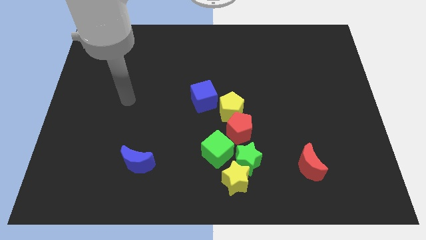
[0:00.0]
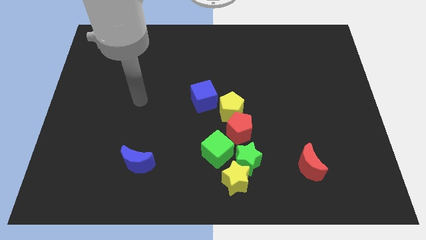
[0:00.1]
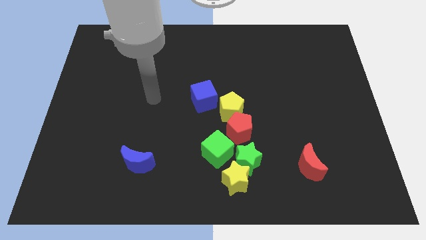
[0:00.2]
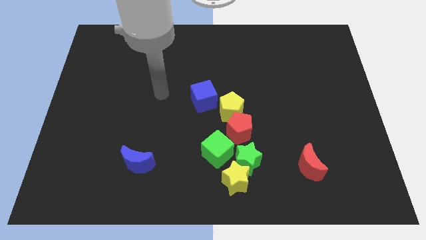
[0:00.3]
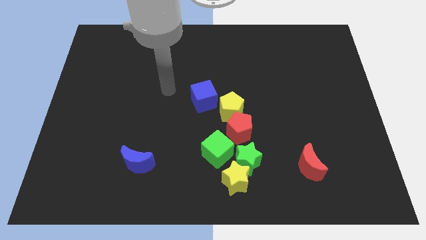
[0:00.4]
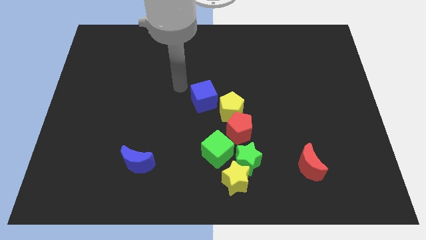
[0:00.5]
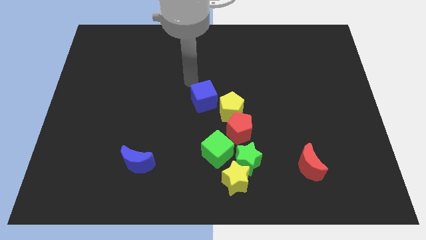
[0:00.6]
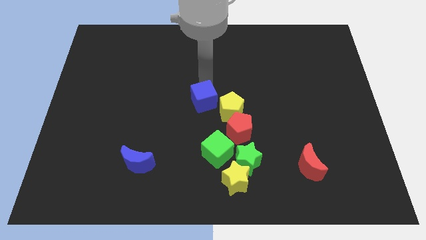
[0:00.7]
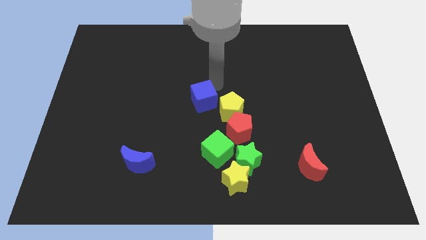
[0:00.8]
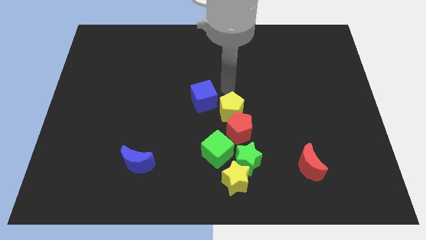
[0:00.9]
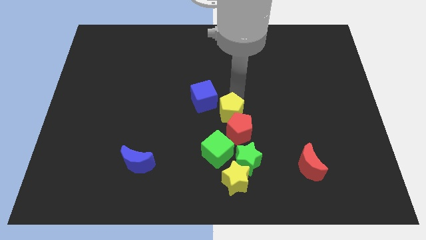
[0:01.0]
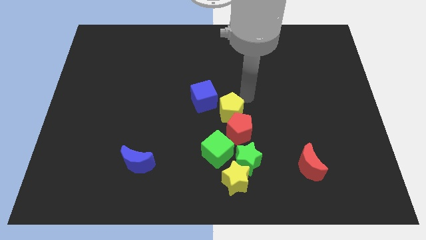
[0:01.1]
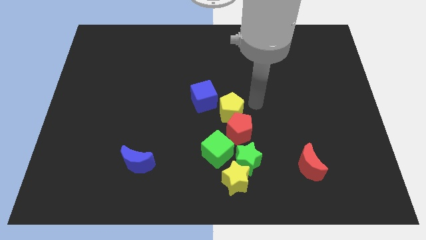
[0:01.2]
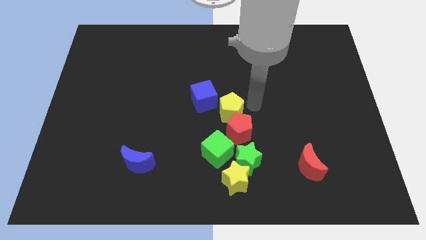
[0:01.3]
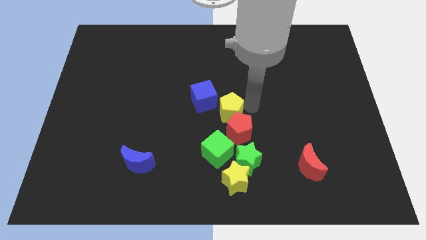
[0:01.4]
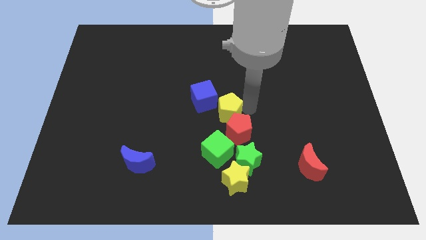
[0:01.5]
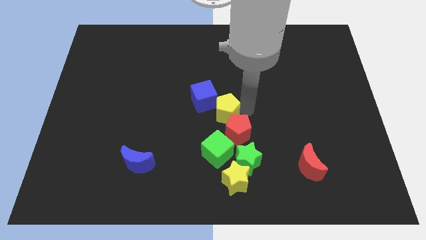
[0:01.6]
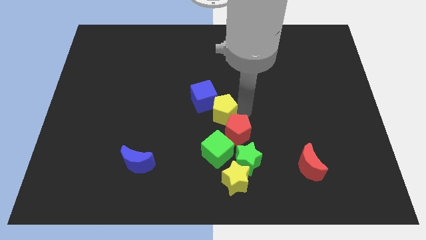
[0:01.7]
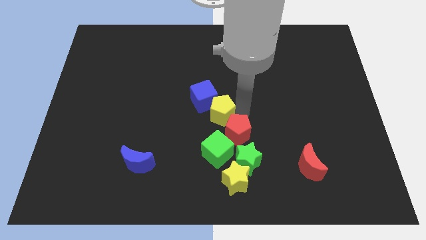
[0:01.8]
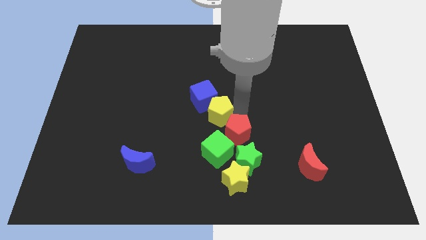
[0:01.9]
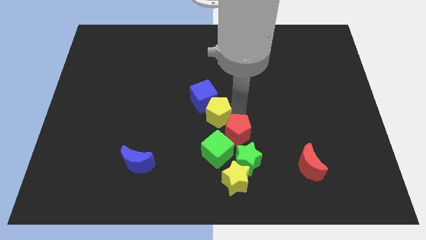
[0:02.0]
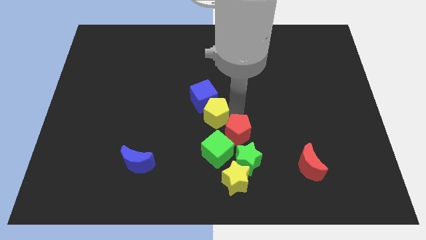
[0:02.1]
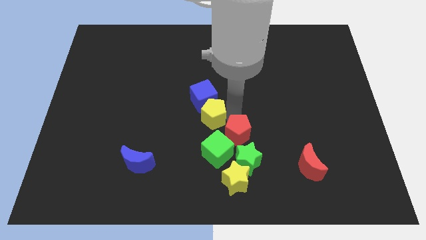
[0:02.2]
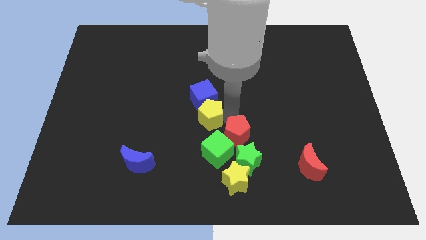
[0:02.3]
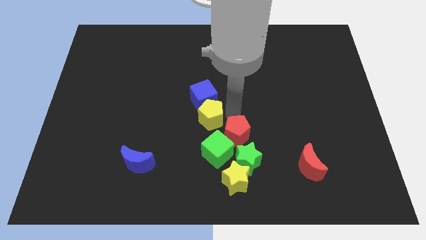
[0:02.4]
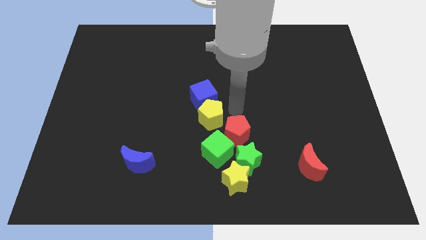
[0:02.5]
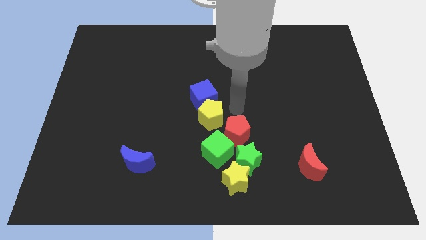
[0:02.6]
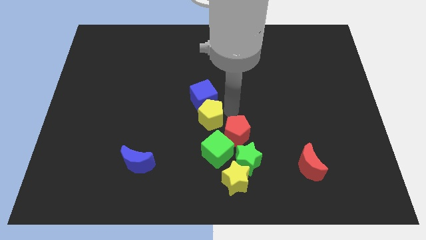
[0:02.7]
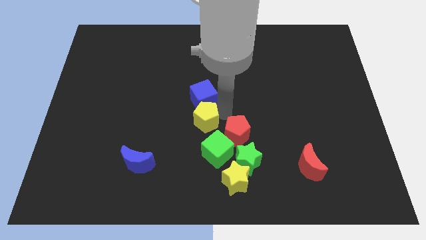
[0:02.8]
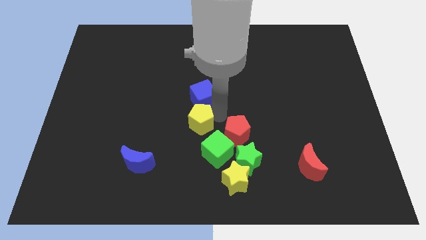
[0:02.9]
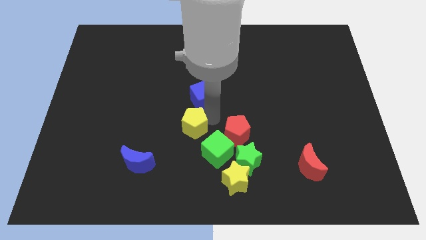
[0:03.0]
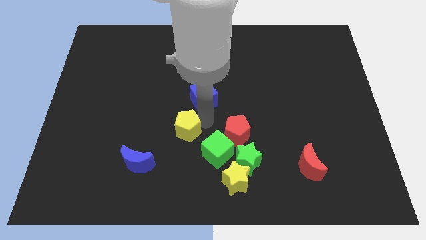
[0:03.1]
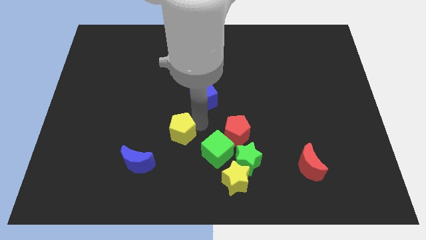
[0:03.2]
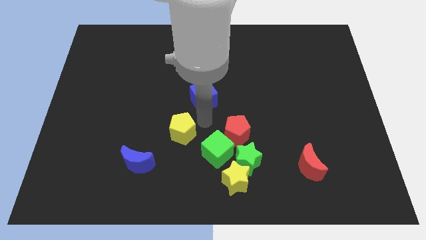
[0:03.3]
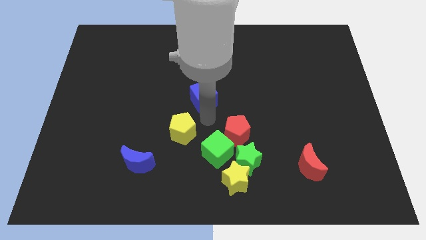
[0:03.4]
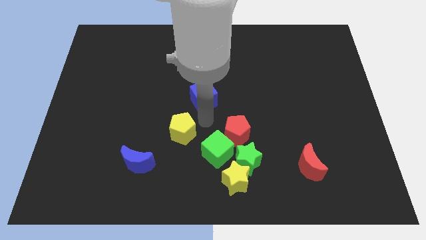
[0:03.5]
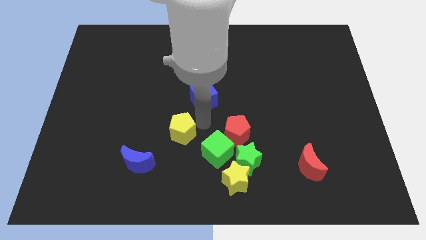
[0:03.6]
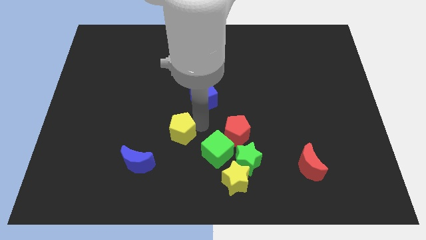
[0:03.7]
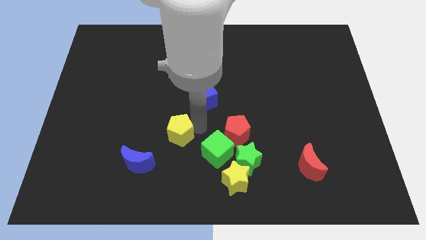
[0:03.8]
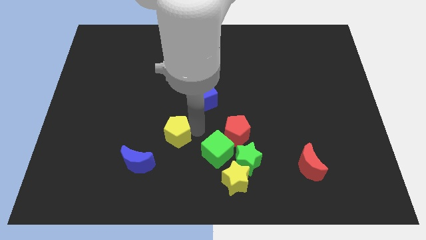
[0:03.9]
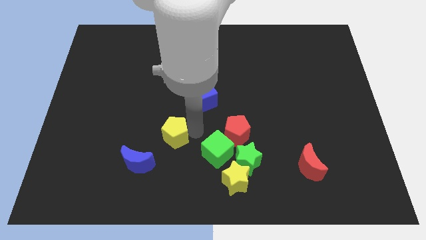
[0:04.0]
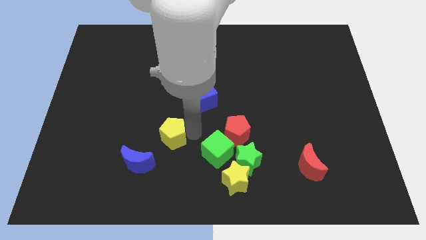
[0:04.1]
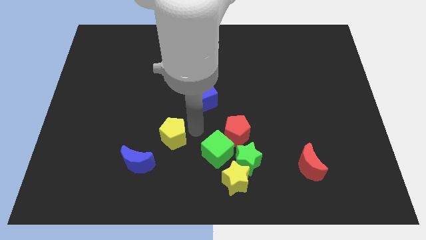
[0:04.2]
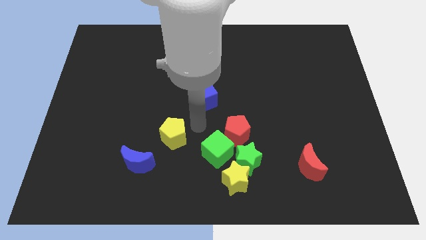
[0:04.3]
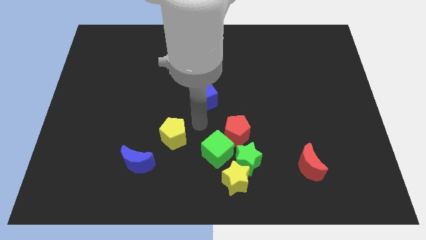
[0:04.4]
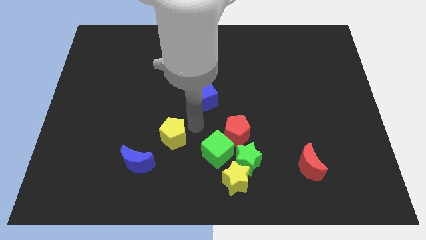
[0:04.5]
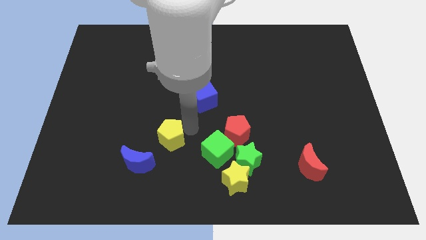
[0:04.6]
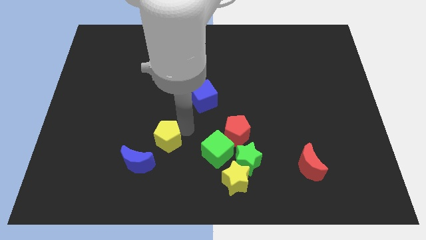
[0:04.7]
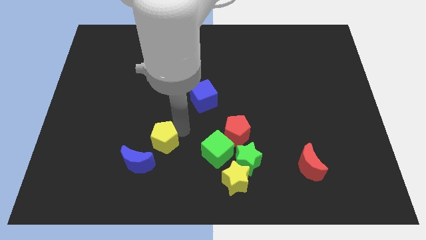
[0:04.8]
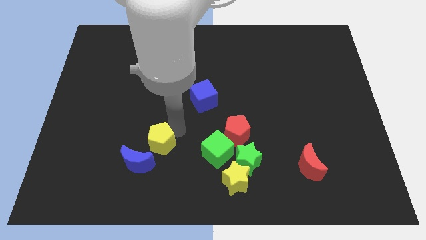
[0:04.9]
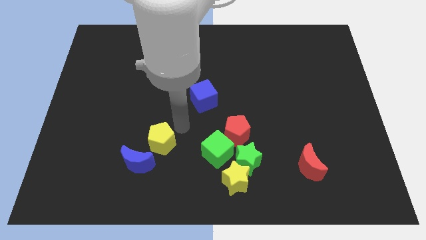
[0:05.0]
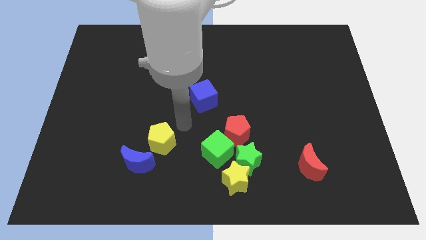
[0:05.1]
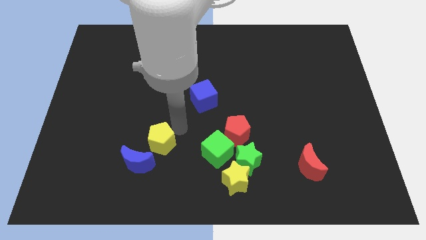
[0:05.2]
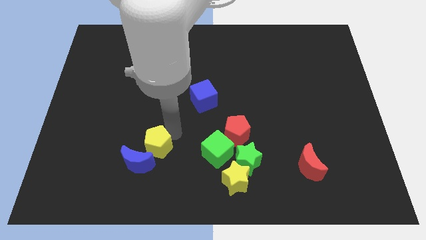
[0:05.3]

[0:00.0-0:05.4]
slide the yellow pentagon towards the blue moon

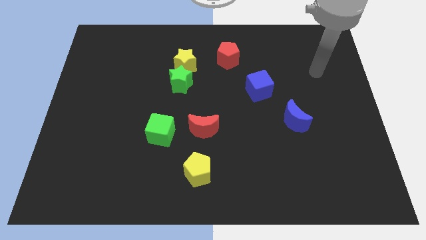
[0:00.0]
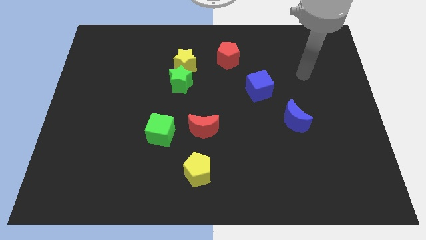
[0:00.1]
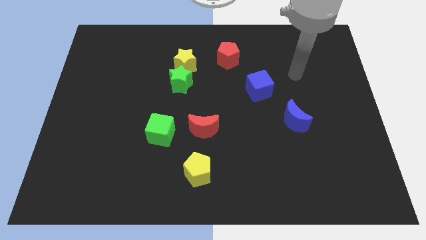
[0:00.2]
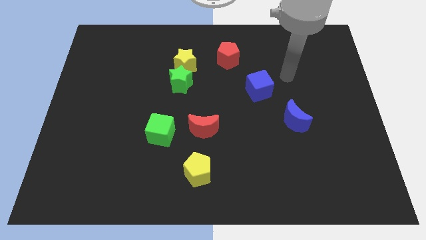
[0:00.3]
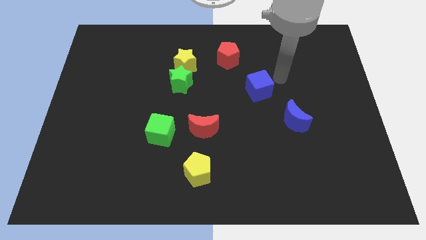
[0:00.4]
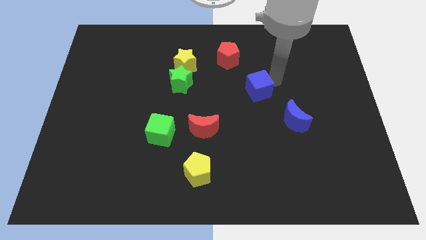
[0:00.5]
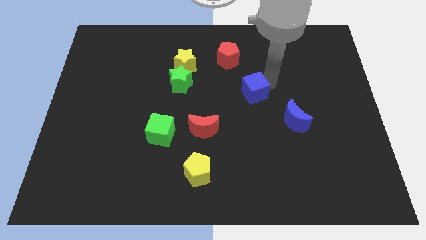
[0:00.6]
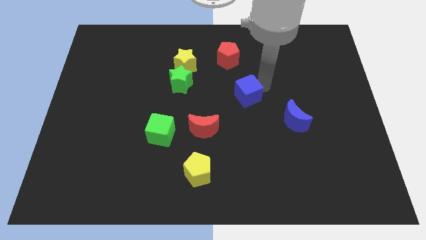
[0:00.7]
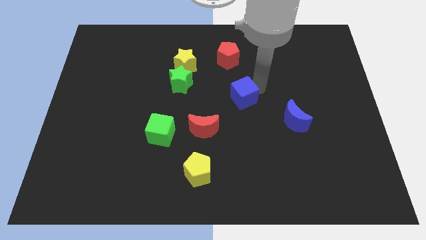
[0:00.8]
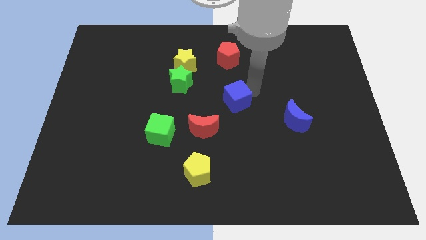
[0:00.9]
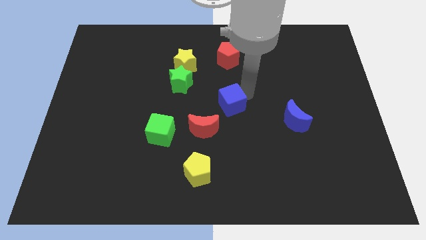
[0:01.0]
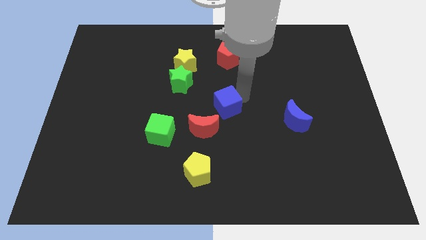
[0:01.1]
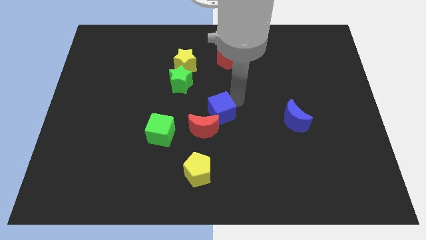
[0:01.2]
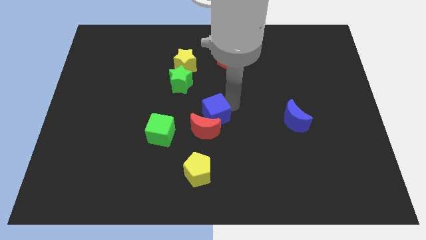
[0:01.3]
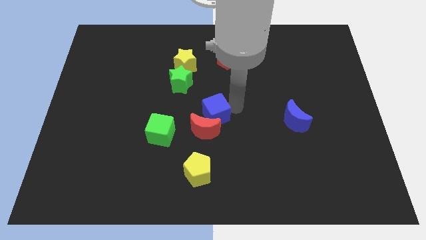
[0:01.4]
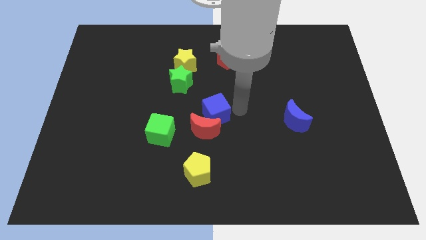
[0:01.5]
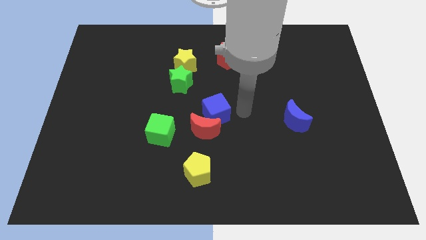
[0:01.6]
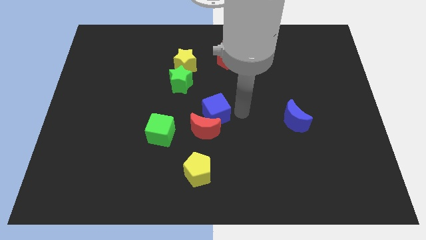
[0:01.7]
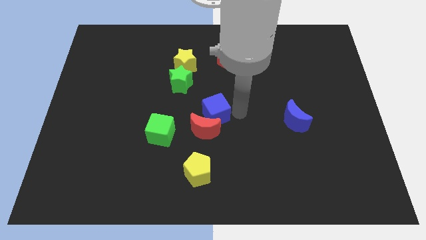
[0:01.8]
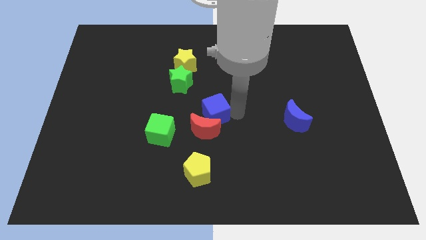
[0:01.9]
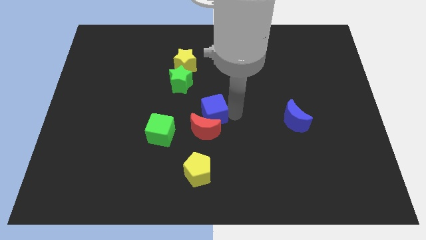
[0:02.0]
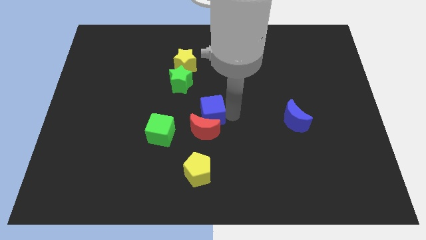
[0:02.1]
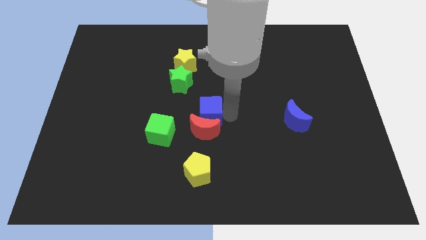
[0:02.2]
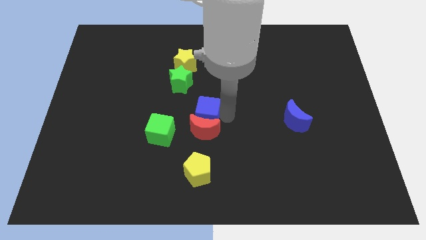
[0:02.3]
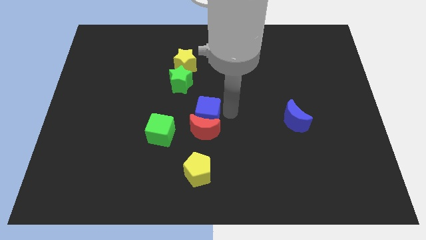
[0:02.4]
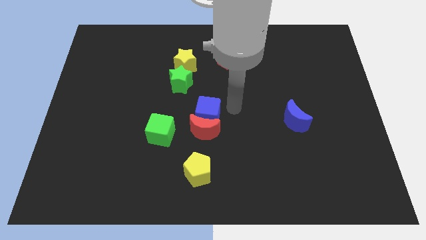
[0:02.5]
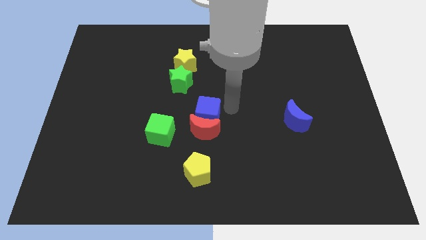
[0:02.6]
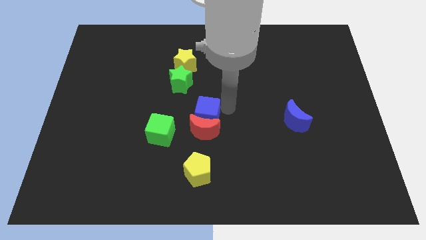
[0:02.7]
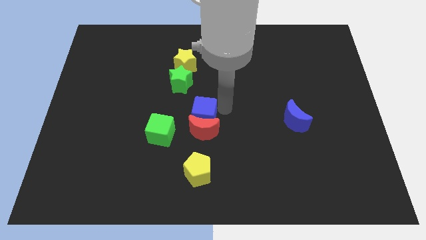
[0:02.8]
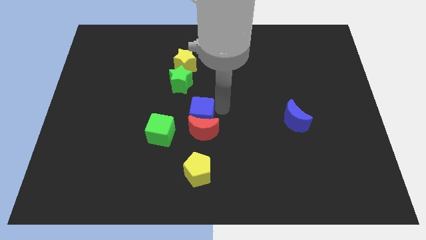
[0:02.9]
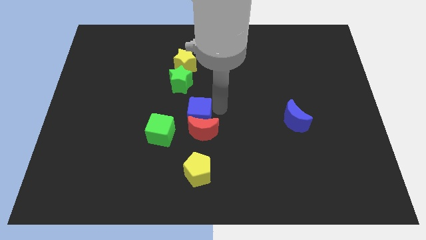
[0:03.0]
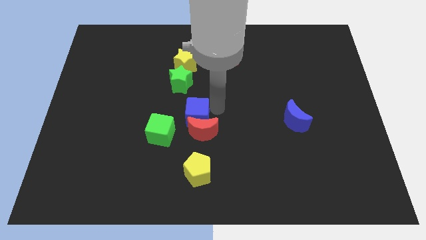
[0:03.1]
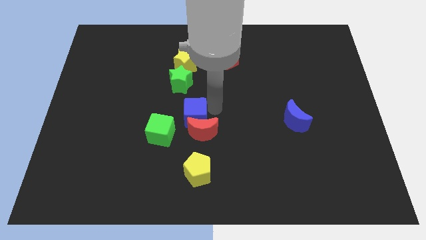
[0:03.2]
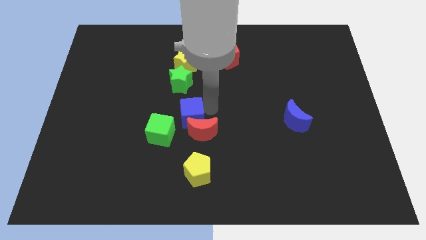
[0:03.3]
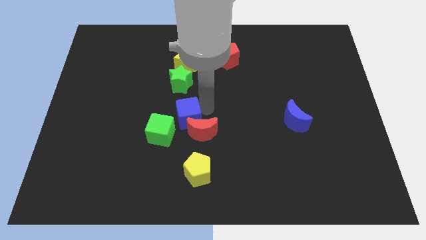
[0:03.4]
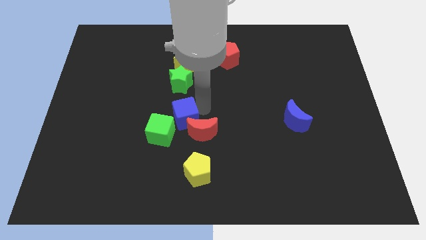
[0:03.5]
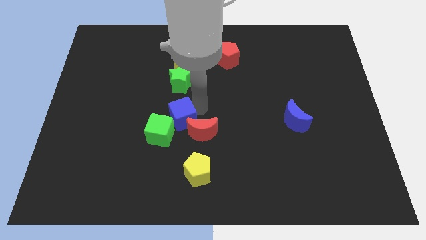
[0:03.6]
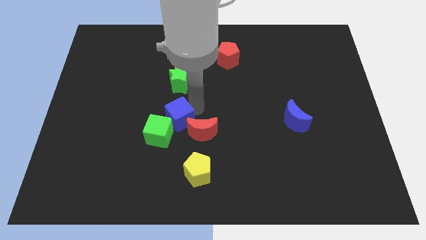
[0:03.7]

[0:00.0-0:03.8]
move the blue cube close to the green cube
